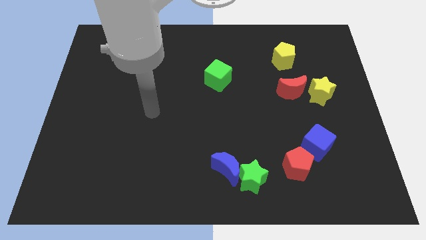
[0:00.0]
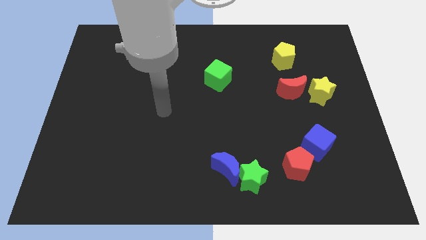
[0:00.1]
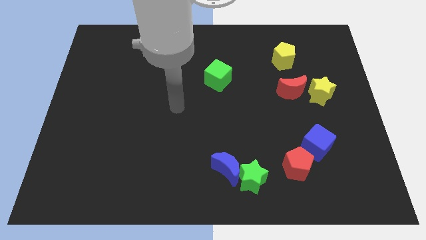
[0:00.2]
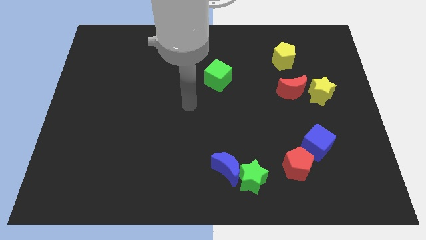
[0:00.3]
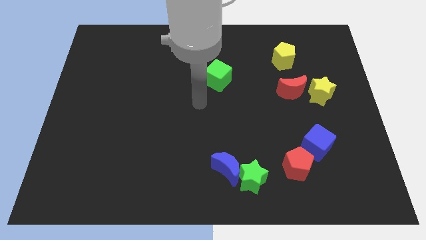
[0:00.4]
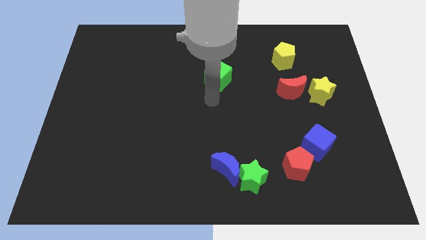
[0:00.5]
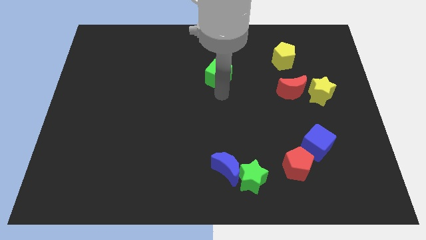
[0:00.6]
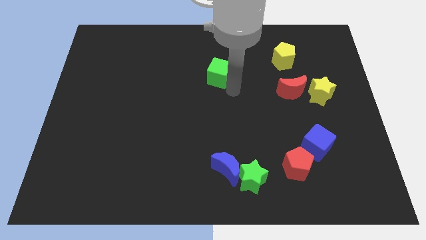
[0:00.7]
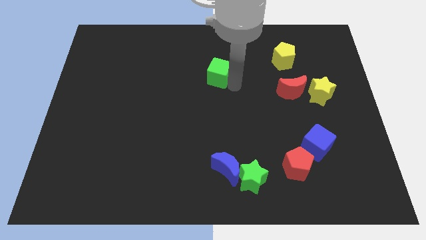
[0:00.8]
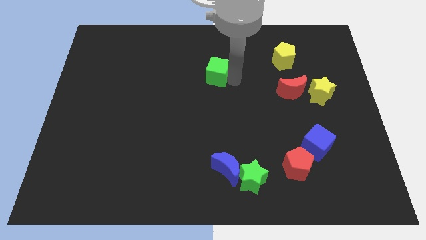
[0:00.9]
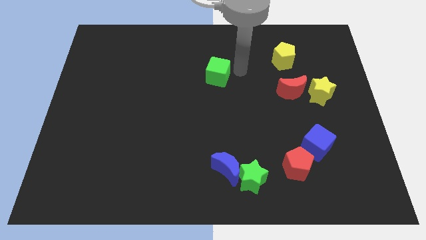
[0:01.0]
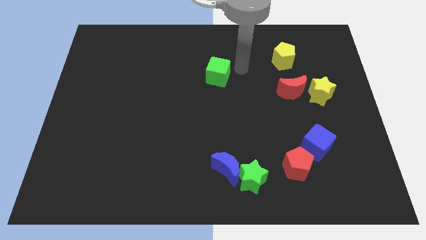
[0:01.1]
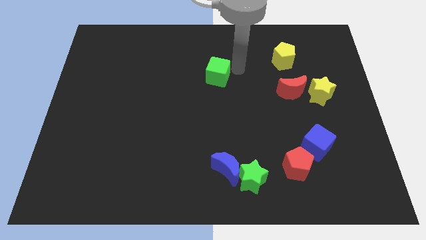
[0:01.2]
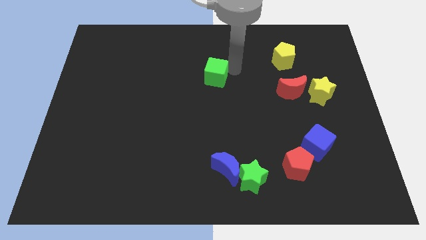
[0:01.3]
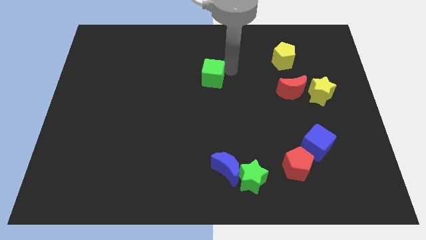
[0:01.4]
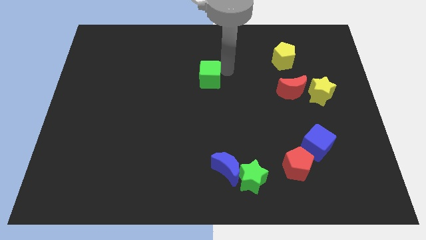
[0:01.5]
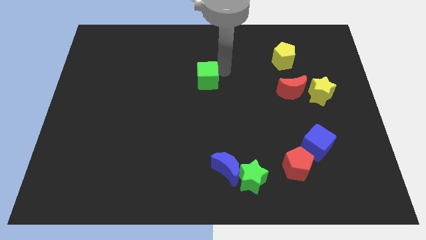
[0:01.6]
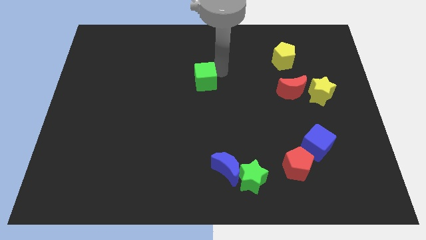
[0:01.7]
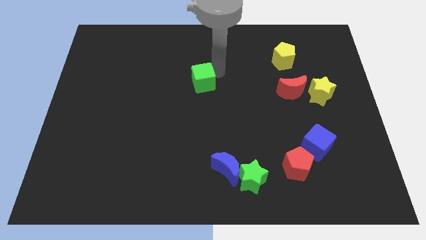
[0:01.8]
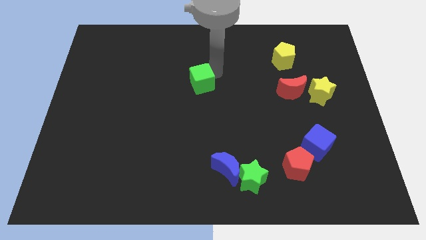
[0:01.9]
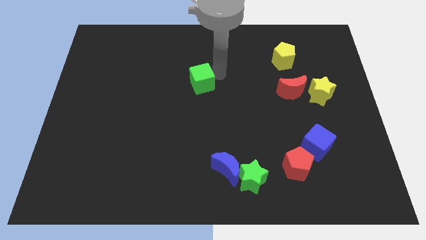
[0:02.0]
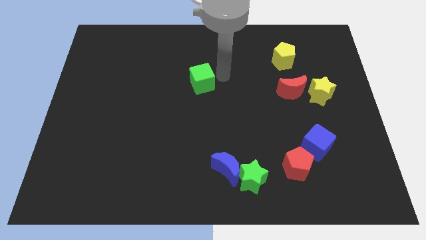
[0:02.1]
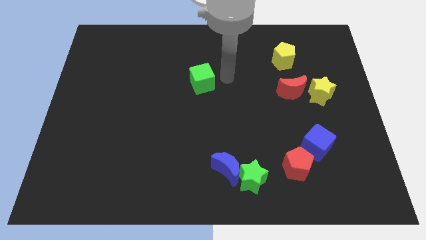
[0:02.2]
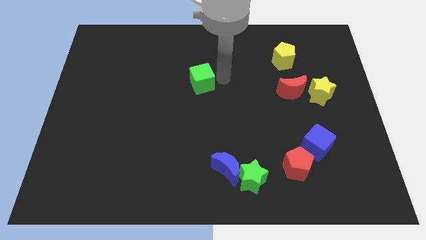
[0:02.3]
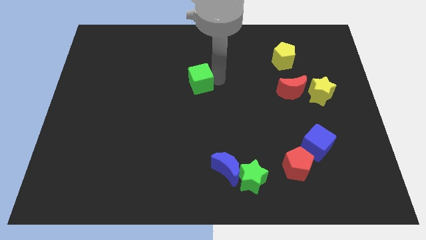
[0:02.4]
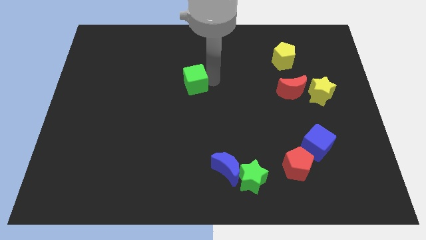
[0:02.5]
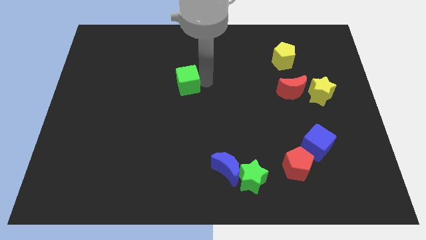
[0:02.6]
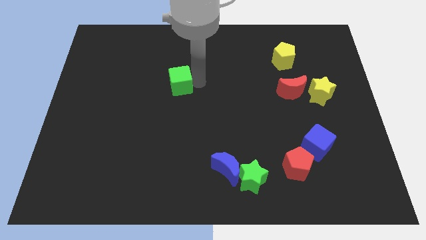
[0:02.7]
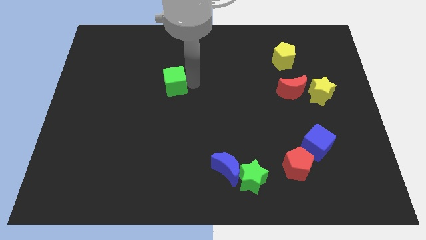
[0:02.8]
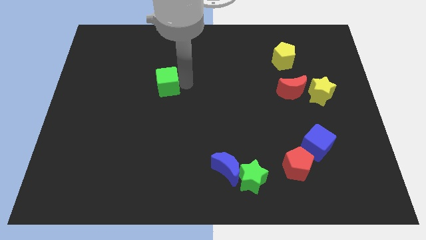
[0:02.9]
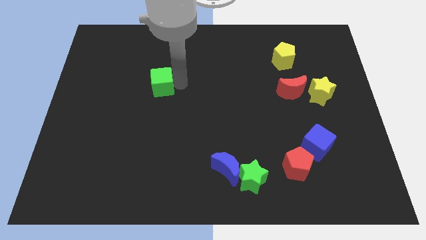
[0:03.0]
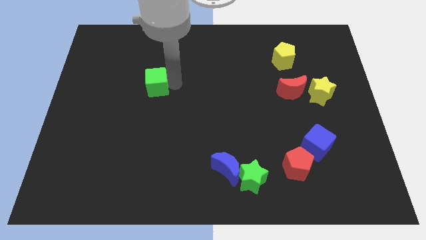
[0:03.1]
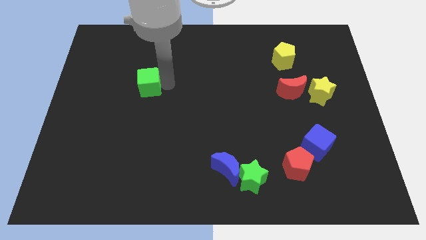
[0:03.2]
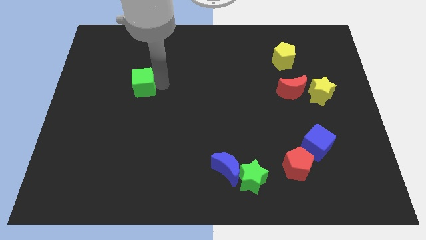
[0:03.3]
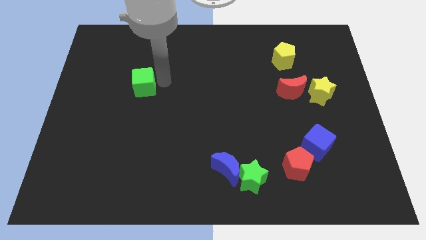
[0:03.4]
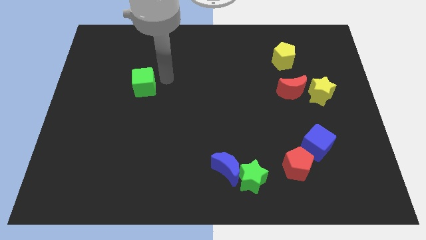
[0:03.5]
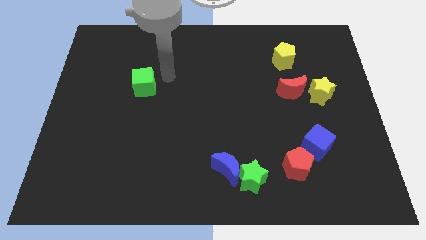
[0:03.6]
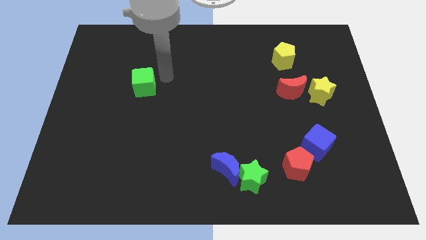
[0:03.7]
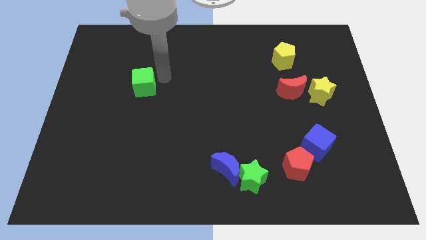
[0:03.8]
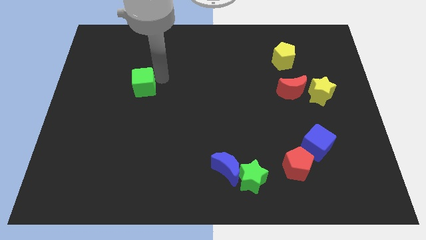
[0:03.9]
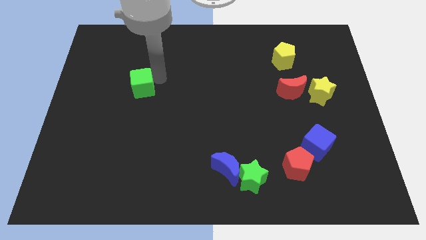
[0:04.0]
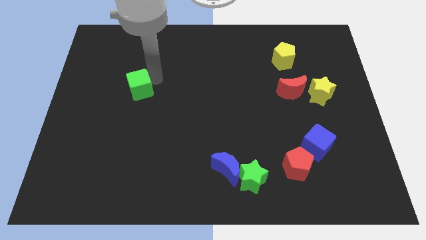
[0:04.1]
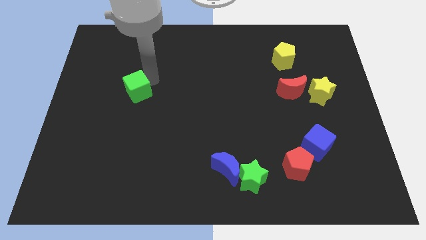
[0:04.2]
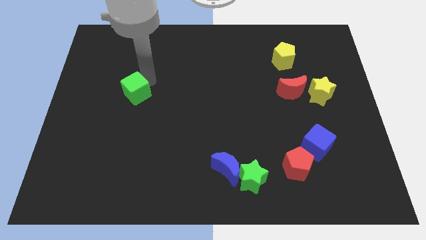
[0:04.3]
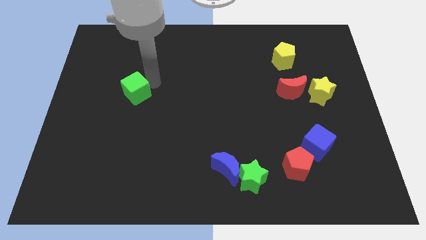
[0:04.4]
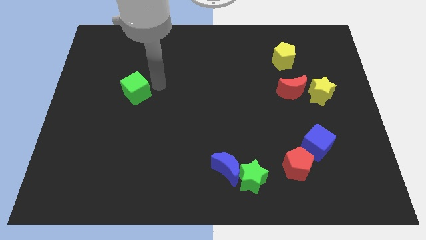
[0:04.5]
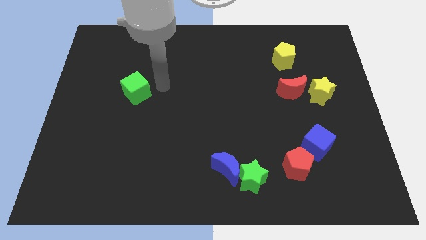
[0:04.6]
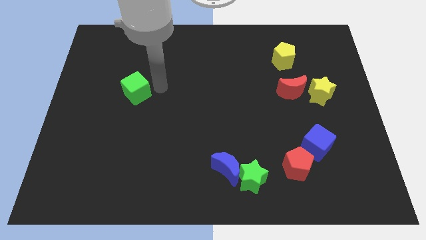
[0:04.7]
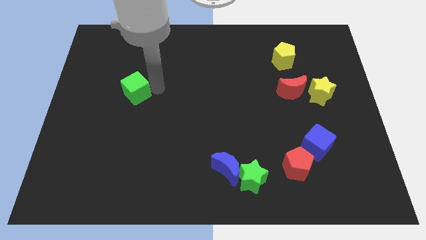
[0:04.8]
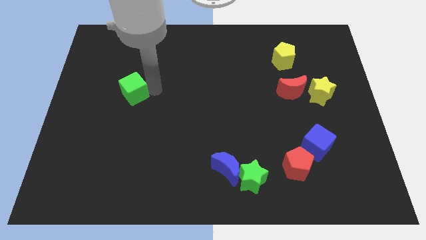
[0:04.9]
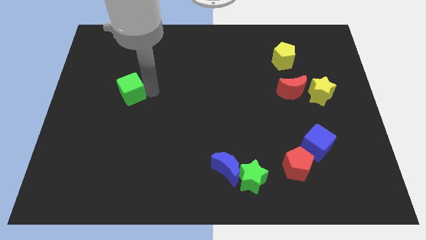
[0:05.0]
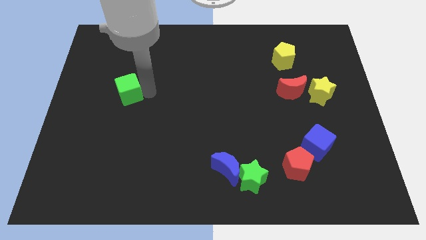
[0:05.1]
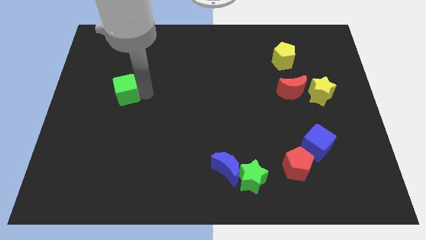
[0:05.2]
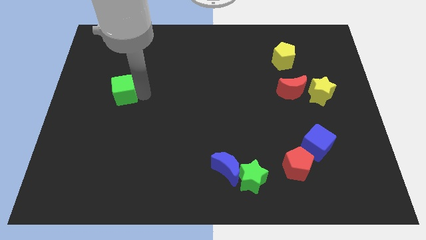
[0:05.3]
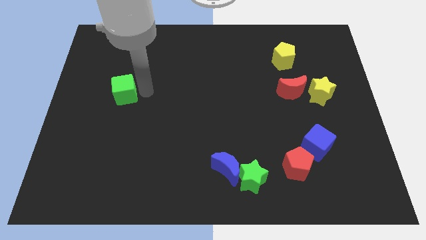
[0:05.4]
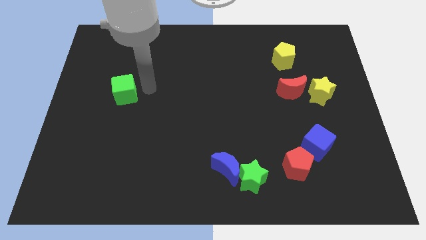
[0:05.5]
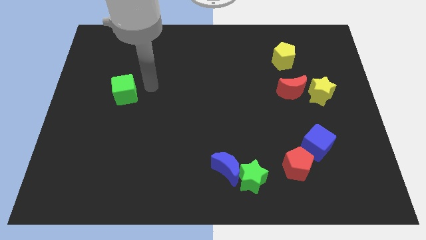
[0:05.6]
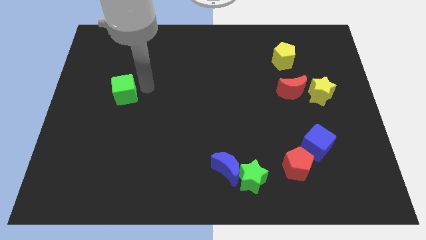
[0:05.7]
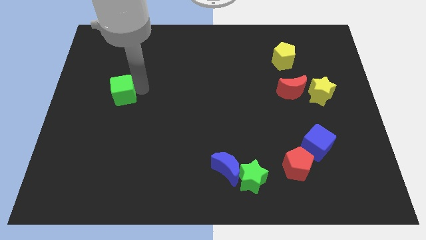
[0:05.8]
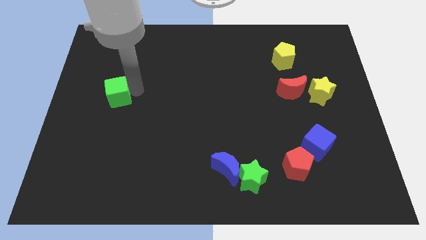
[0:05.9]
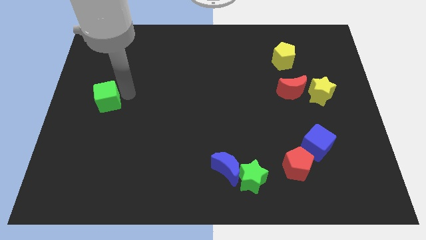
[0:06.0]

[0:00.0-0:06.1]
push the green cube to the center left
